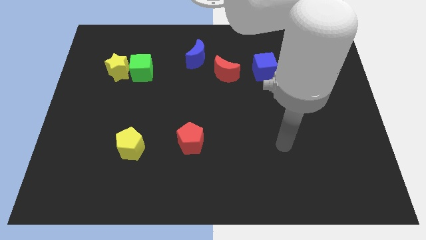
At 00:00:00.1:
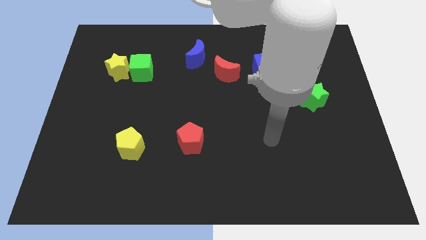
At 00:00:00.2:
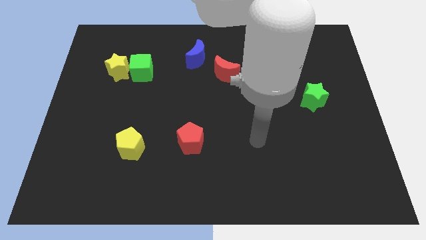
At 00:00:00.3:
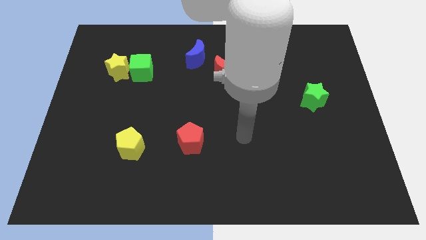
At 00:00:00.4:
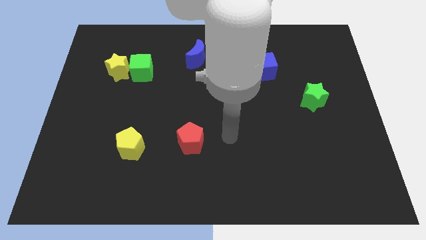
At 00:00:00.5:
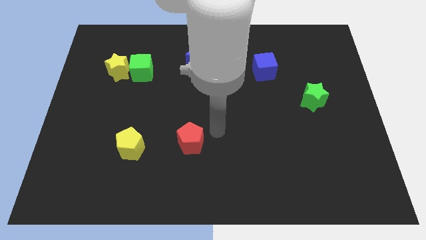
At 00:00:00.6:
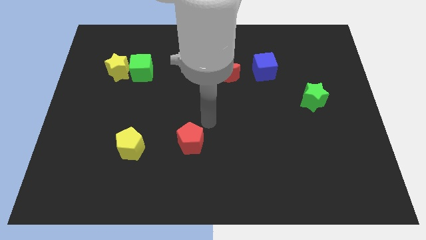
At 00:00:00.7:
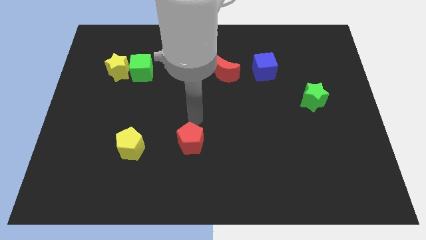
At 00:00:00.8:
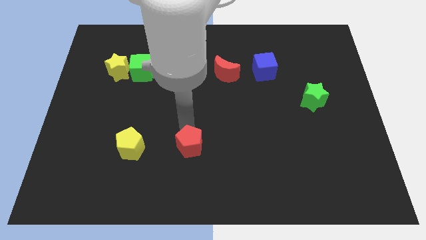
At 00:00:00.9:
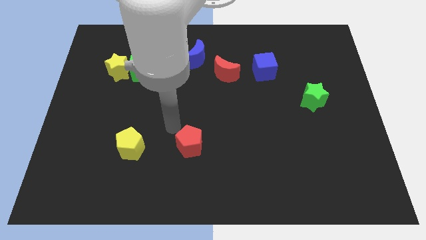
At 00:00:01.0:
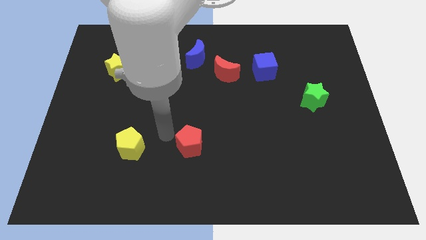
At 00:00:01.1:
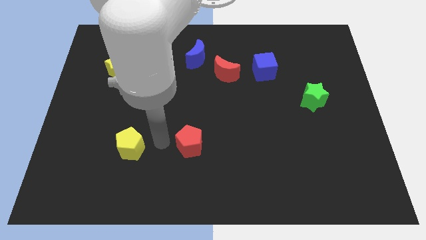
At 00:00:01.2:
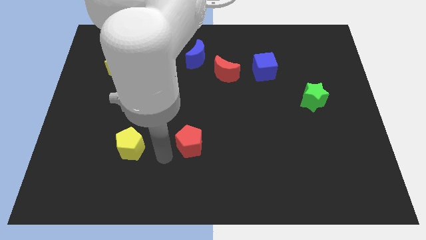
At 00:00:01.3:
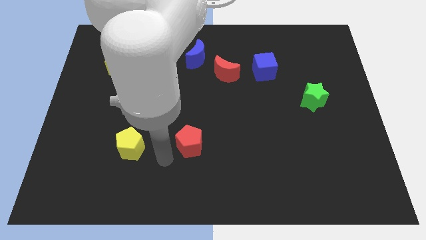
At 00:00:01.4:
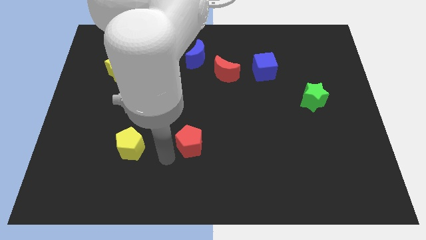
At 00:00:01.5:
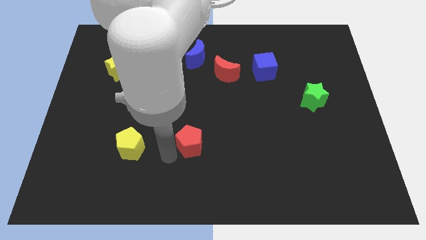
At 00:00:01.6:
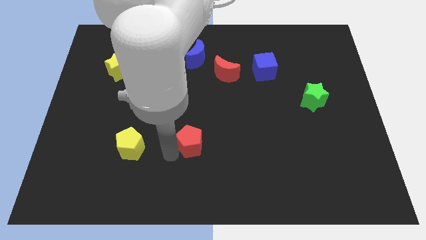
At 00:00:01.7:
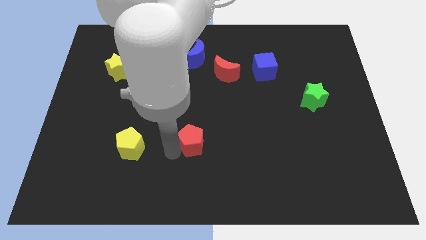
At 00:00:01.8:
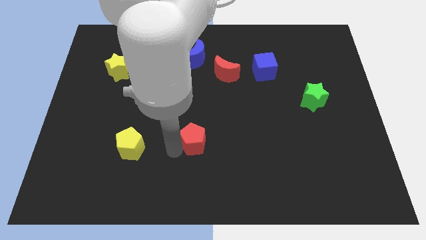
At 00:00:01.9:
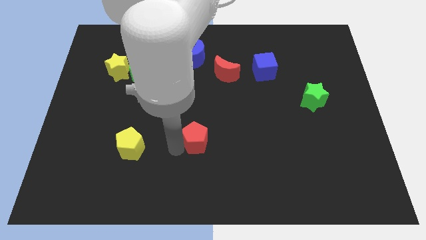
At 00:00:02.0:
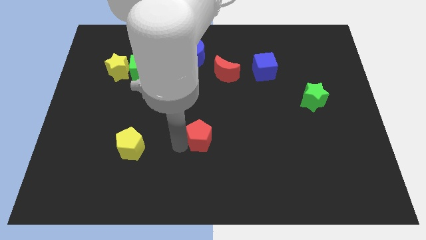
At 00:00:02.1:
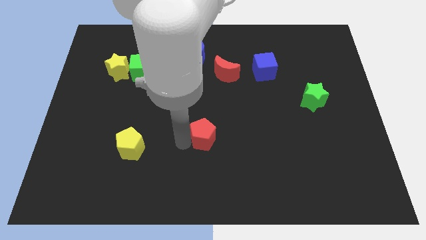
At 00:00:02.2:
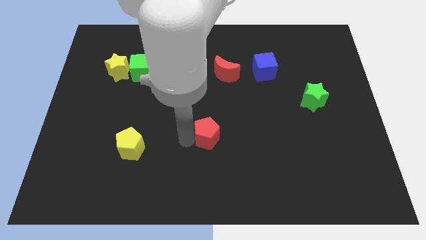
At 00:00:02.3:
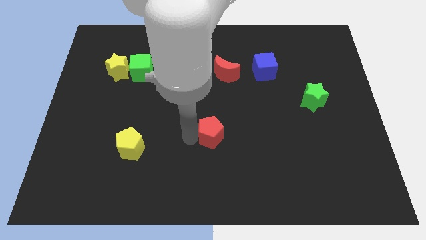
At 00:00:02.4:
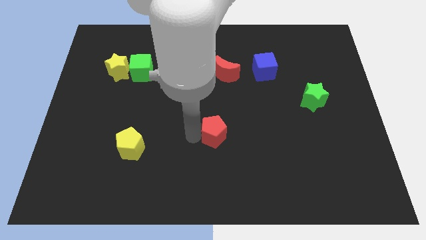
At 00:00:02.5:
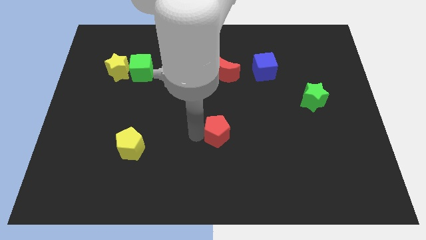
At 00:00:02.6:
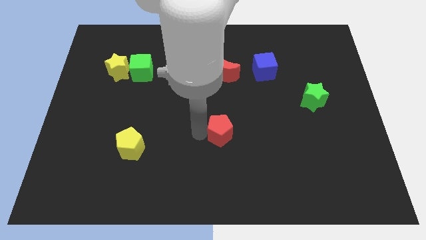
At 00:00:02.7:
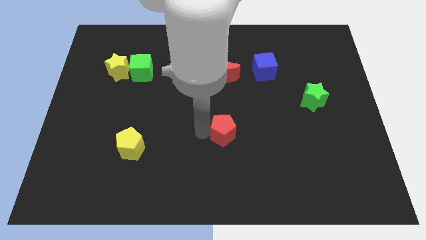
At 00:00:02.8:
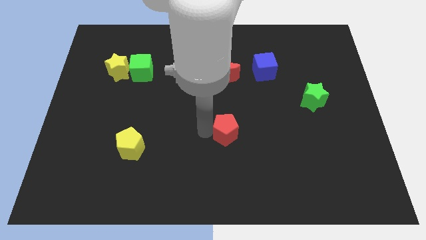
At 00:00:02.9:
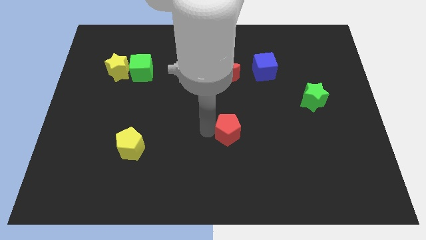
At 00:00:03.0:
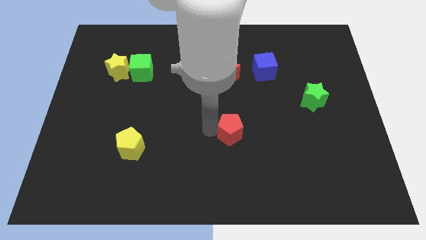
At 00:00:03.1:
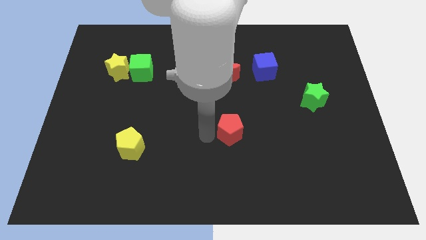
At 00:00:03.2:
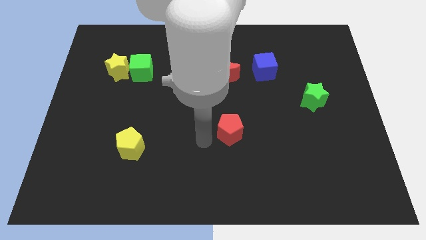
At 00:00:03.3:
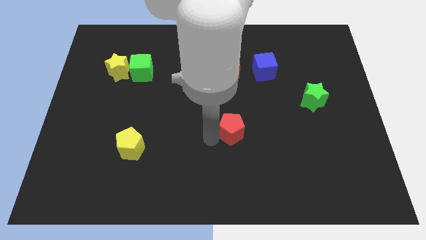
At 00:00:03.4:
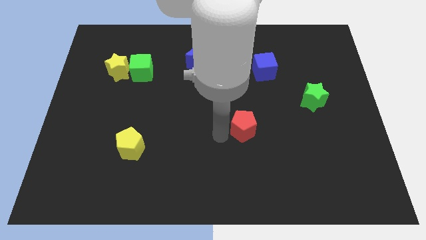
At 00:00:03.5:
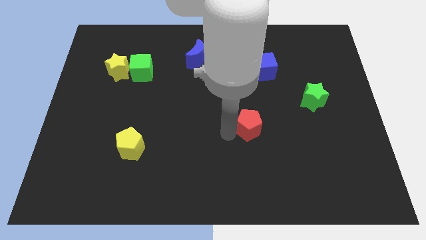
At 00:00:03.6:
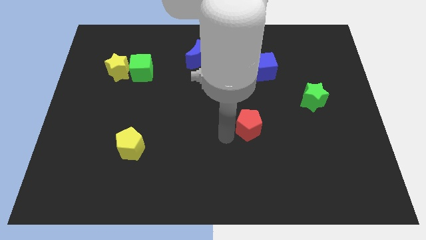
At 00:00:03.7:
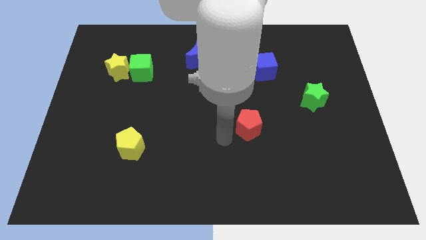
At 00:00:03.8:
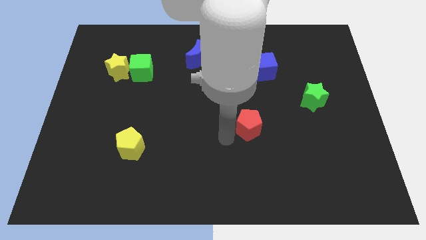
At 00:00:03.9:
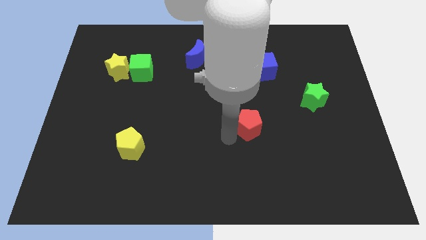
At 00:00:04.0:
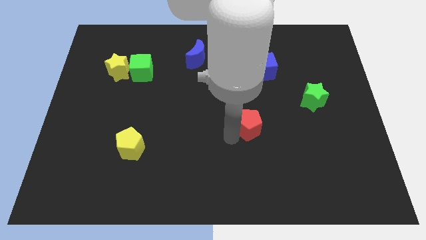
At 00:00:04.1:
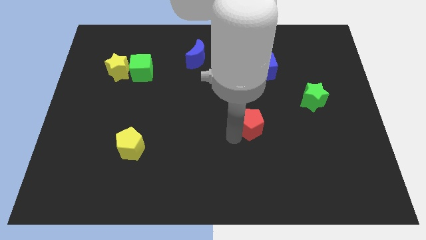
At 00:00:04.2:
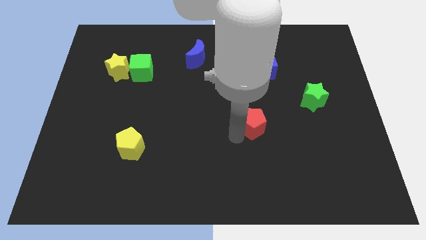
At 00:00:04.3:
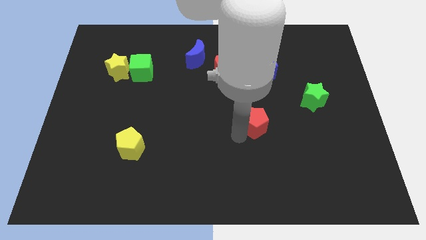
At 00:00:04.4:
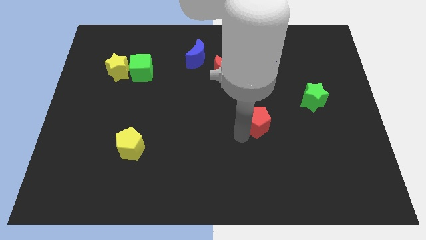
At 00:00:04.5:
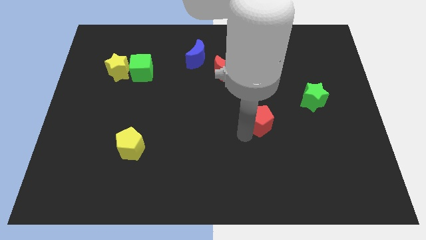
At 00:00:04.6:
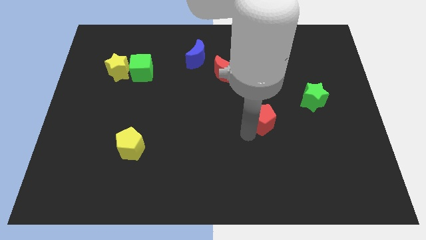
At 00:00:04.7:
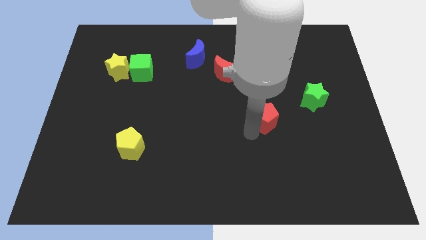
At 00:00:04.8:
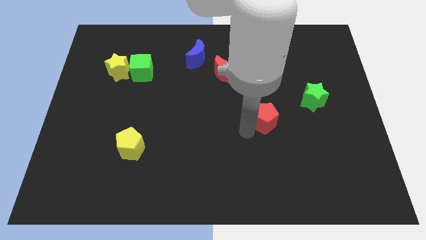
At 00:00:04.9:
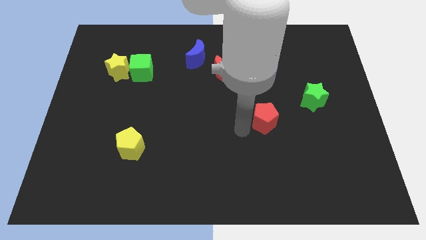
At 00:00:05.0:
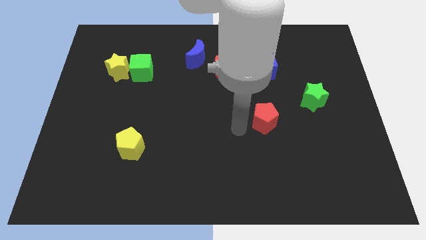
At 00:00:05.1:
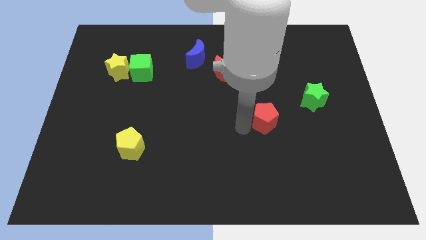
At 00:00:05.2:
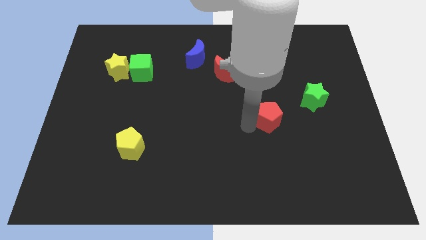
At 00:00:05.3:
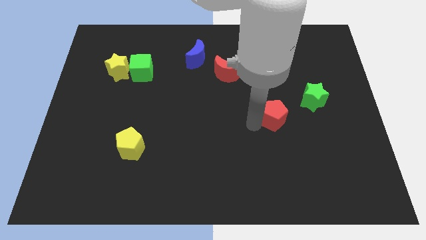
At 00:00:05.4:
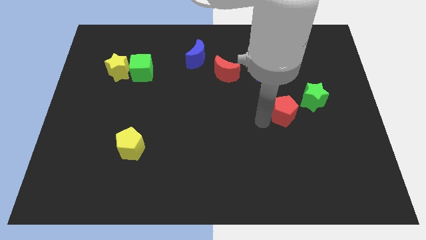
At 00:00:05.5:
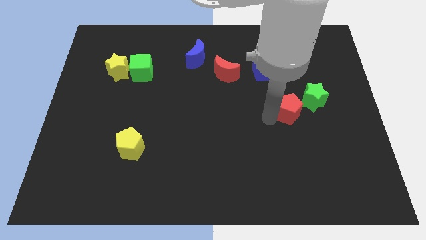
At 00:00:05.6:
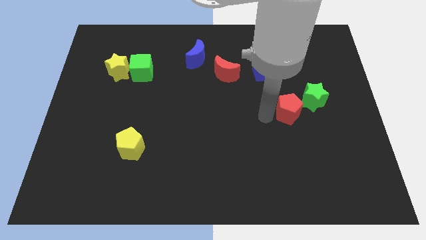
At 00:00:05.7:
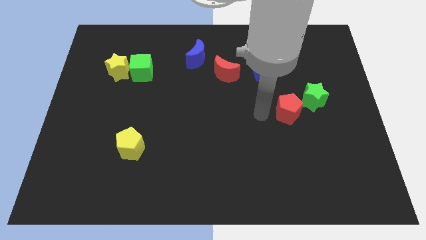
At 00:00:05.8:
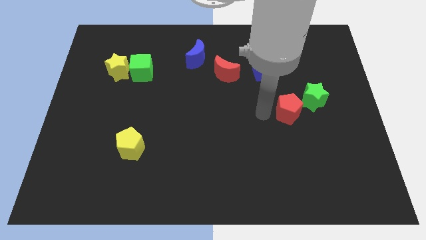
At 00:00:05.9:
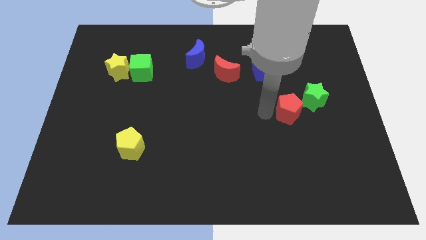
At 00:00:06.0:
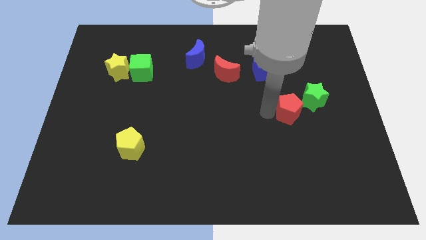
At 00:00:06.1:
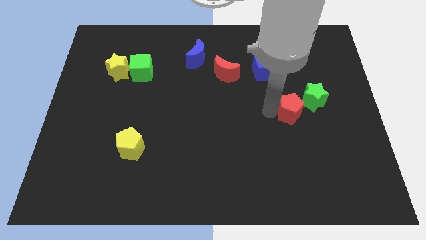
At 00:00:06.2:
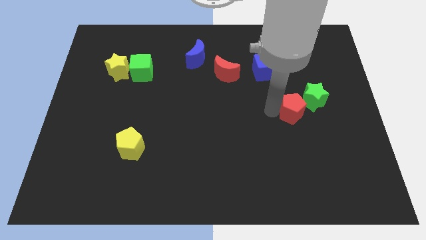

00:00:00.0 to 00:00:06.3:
put the red pentagon towards the green star

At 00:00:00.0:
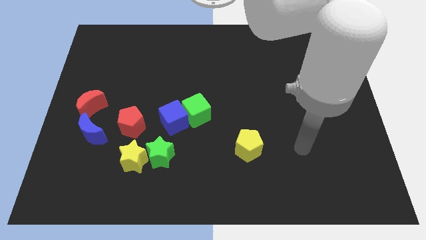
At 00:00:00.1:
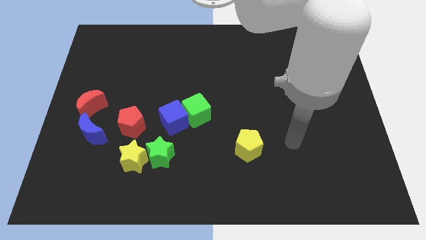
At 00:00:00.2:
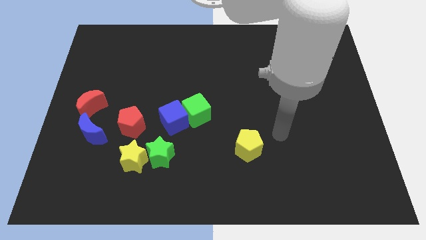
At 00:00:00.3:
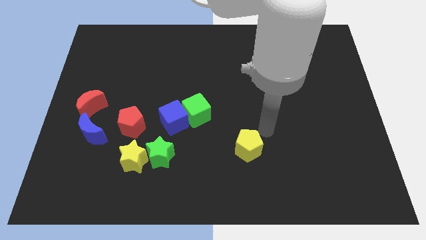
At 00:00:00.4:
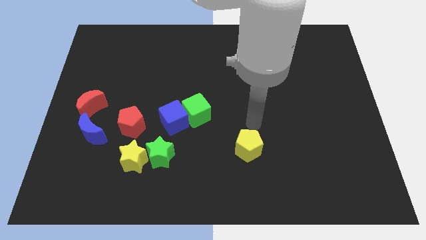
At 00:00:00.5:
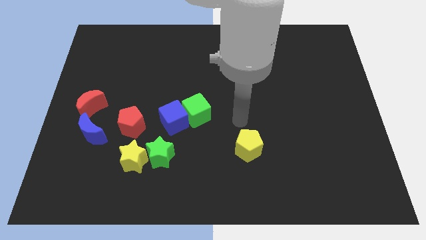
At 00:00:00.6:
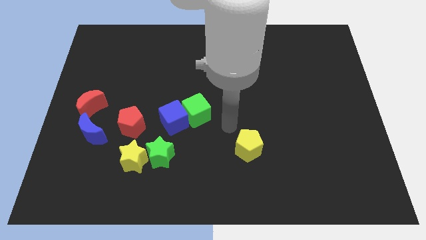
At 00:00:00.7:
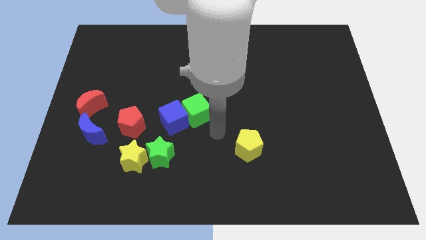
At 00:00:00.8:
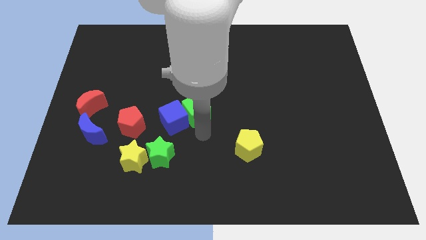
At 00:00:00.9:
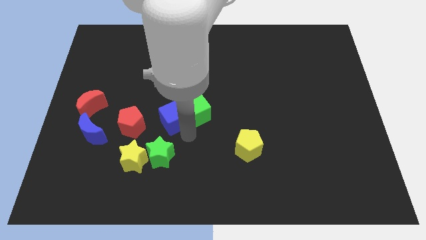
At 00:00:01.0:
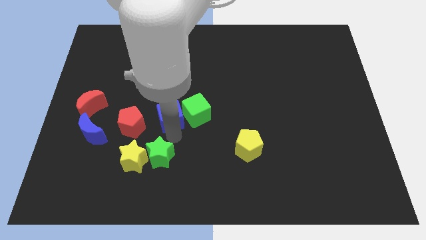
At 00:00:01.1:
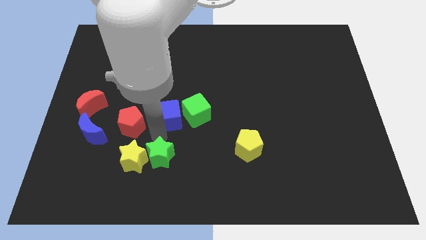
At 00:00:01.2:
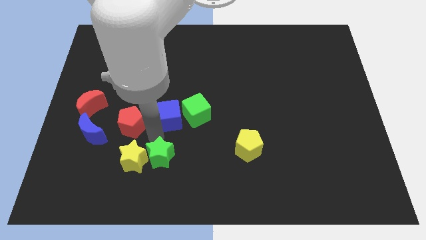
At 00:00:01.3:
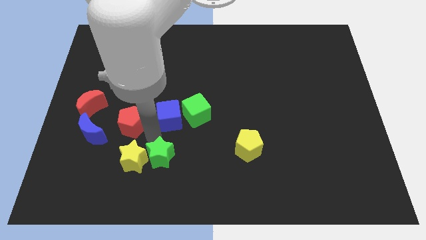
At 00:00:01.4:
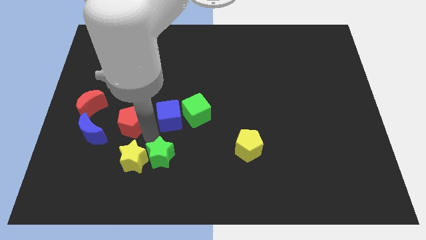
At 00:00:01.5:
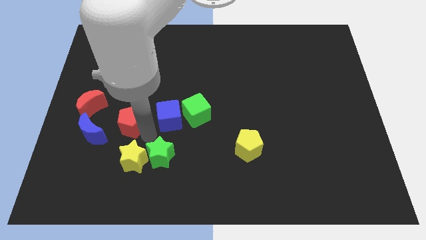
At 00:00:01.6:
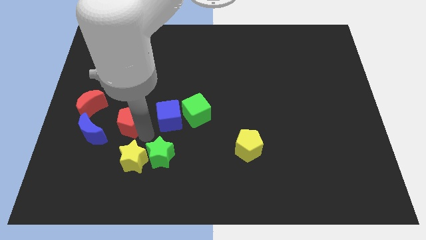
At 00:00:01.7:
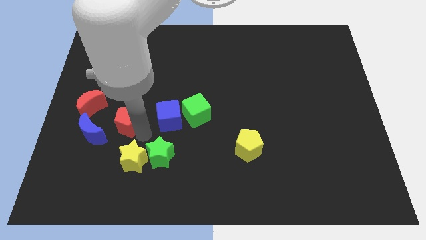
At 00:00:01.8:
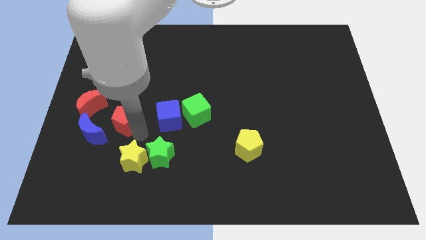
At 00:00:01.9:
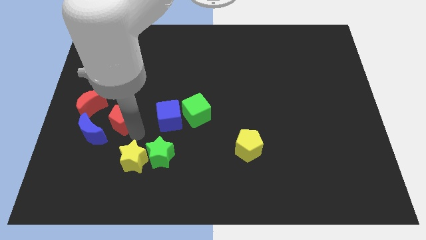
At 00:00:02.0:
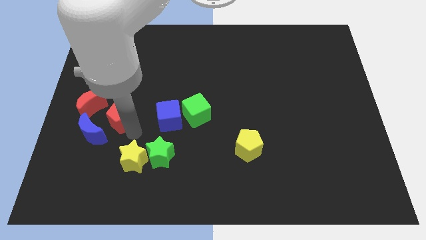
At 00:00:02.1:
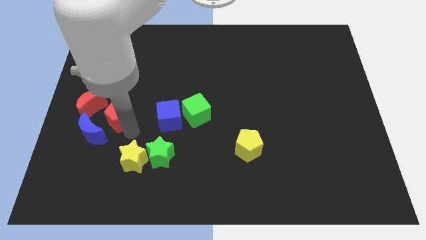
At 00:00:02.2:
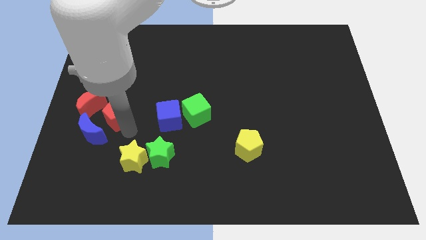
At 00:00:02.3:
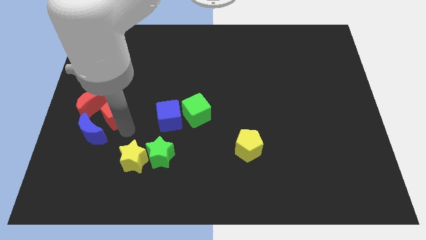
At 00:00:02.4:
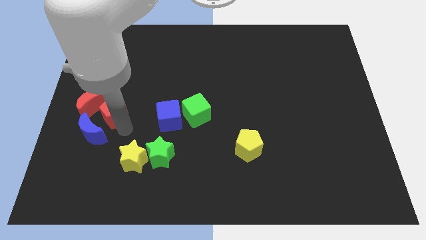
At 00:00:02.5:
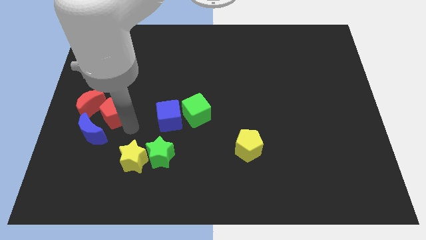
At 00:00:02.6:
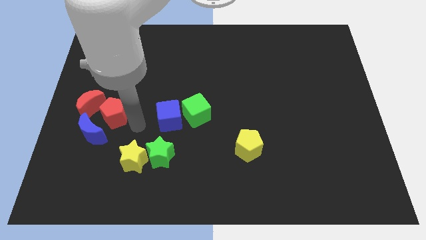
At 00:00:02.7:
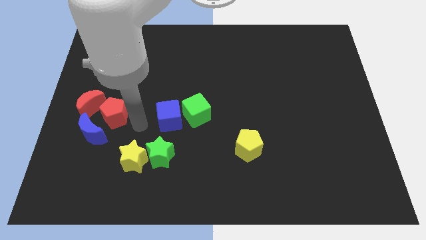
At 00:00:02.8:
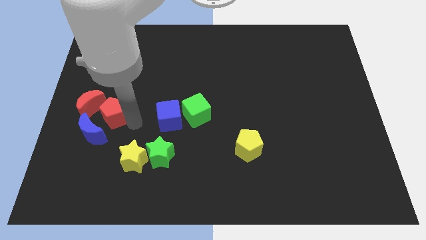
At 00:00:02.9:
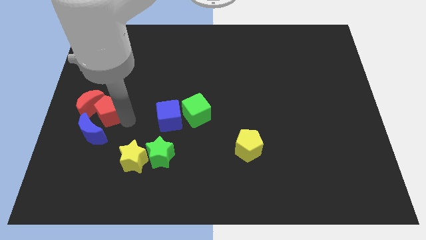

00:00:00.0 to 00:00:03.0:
slide the red pentagon to the red moon
